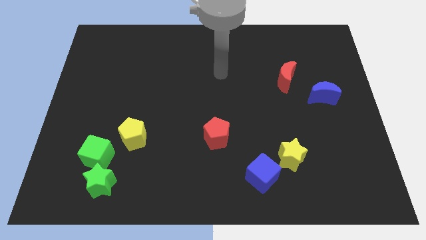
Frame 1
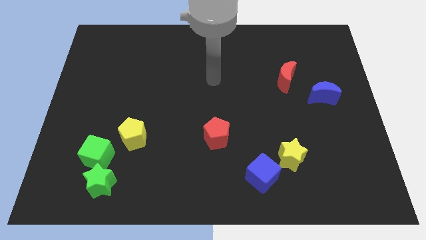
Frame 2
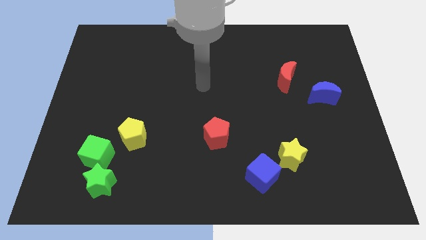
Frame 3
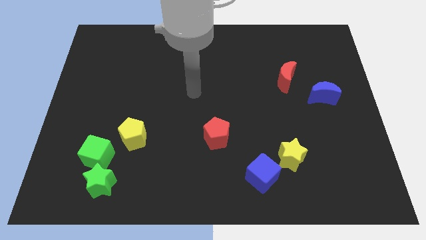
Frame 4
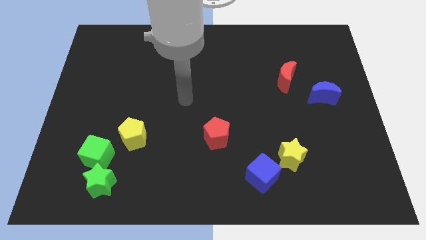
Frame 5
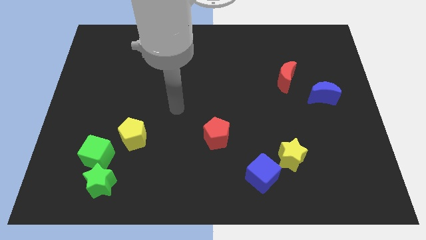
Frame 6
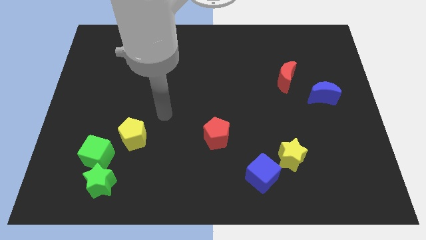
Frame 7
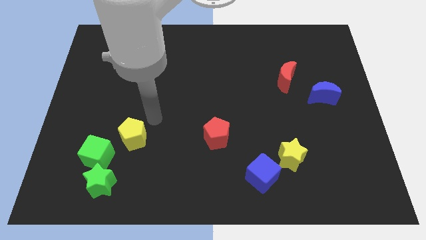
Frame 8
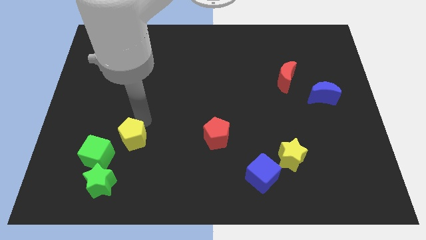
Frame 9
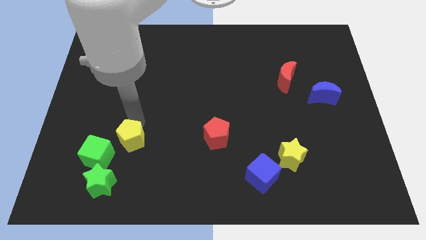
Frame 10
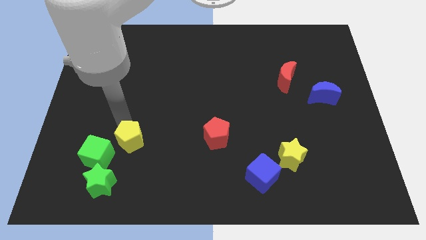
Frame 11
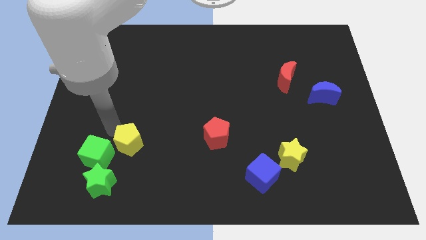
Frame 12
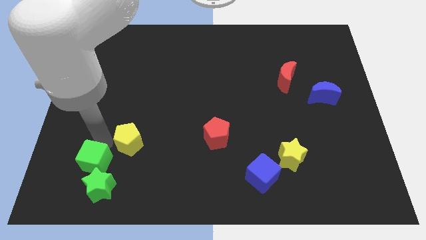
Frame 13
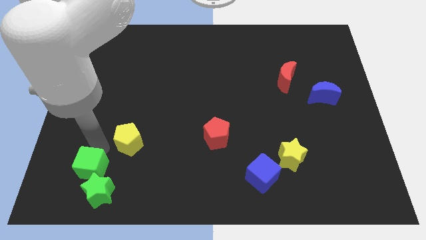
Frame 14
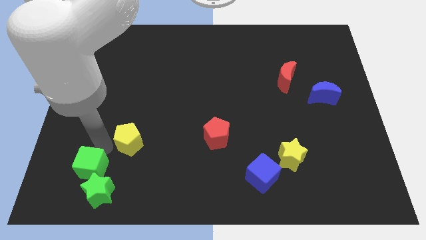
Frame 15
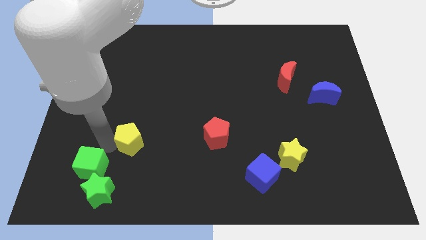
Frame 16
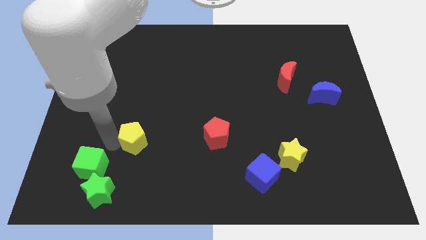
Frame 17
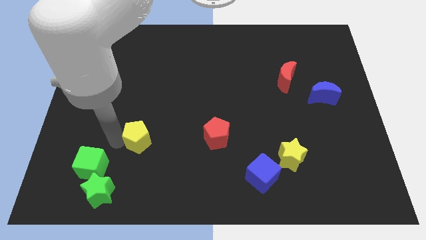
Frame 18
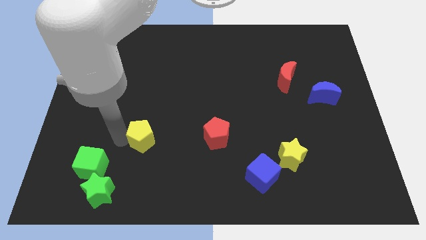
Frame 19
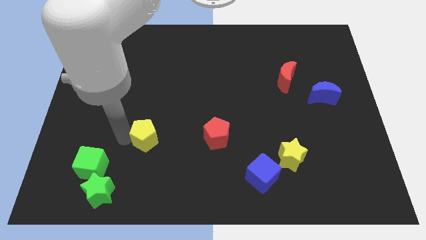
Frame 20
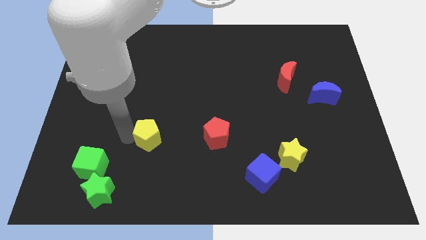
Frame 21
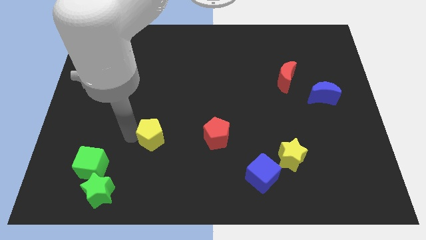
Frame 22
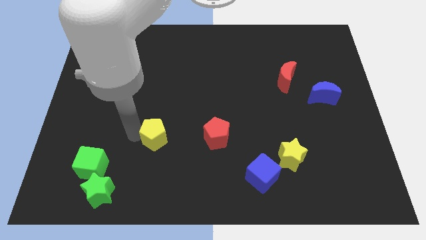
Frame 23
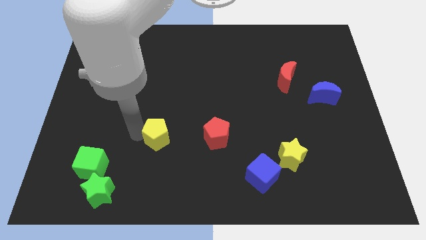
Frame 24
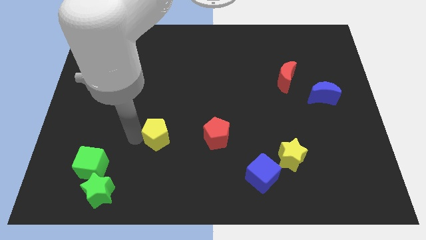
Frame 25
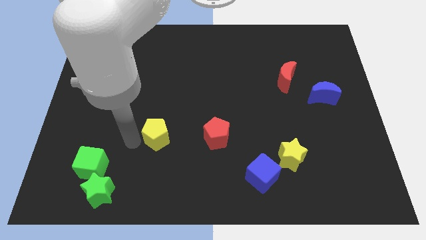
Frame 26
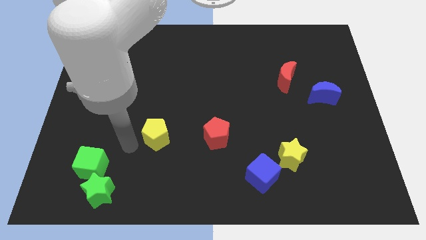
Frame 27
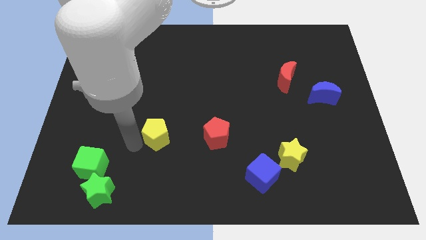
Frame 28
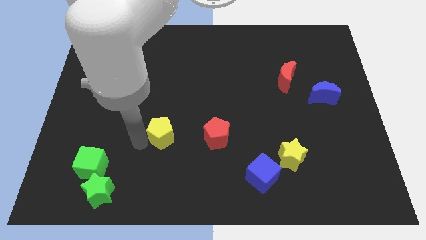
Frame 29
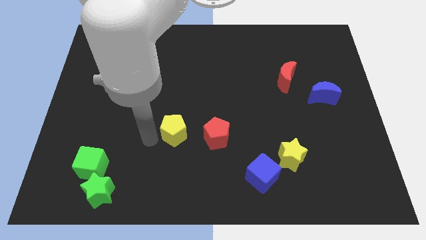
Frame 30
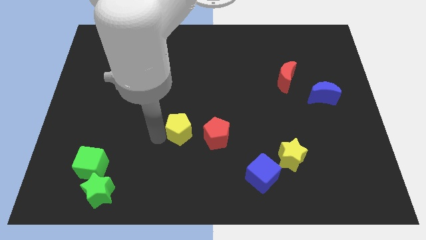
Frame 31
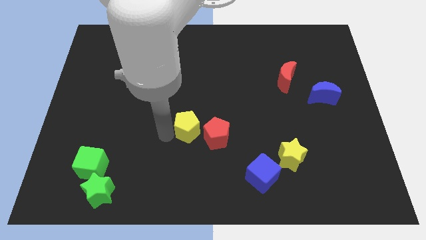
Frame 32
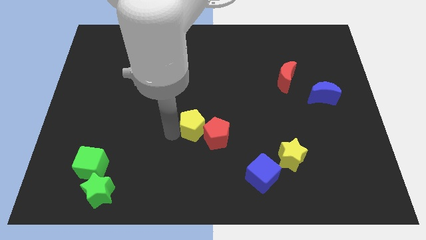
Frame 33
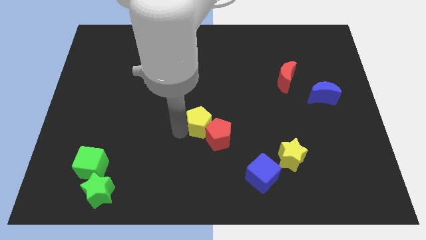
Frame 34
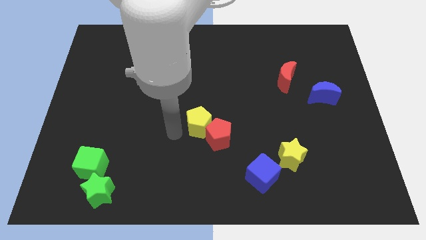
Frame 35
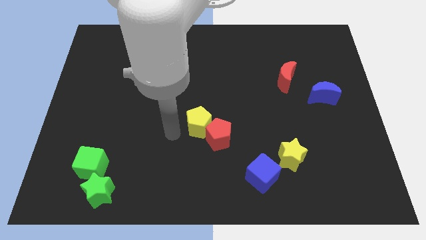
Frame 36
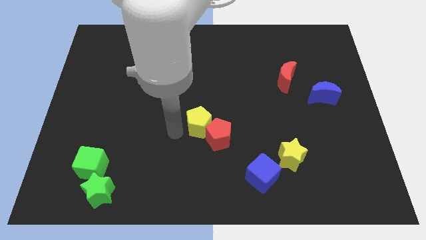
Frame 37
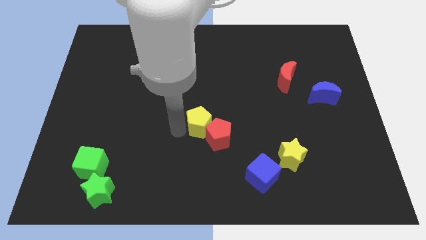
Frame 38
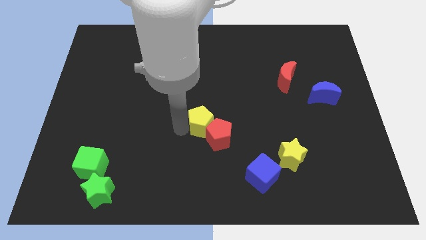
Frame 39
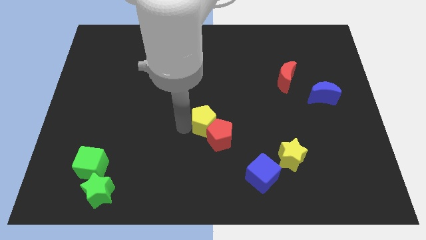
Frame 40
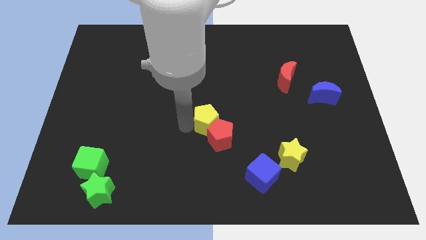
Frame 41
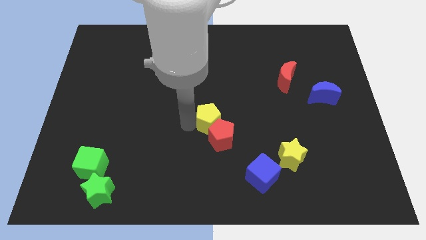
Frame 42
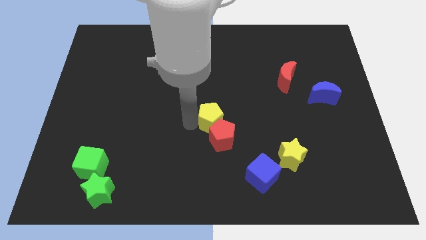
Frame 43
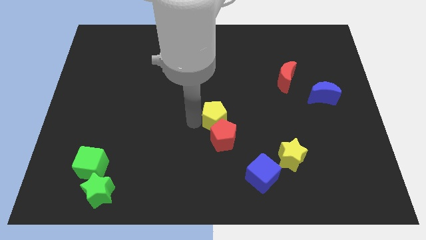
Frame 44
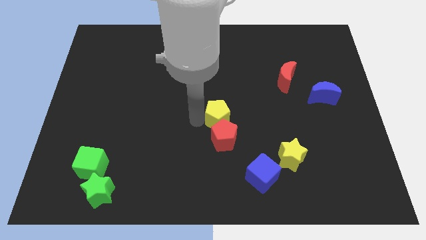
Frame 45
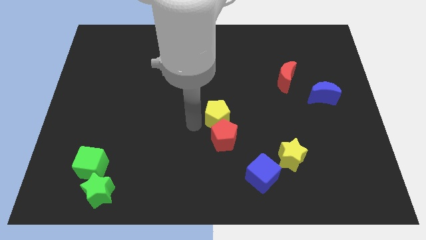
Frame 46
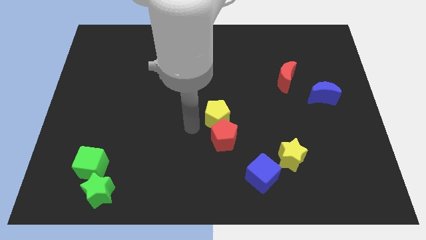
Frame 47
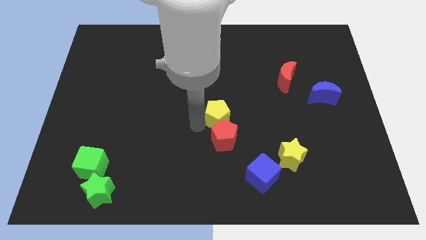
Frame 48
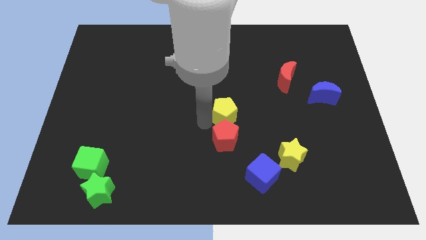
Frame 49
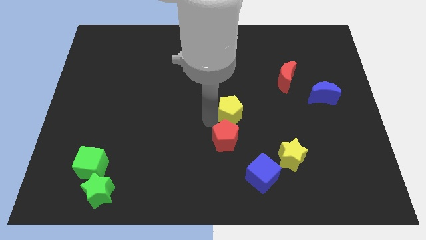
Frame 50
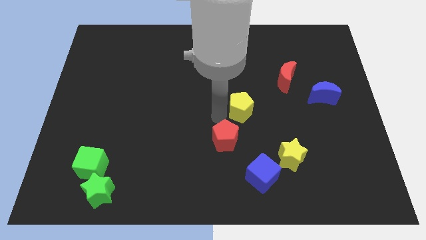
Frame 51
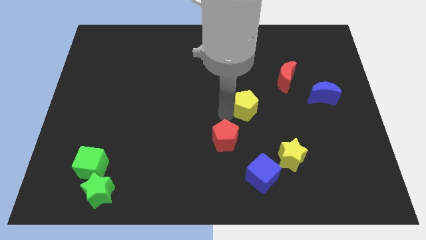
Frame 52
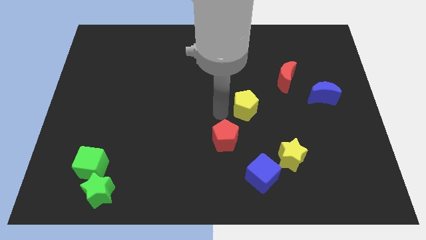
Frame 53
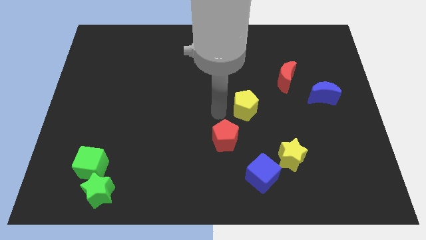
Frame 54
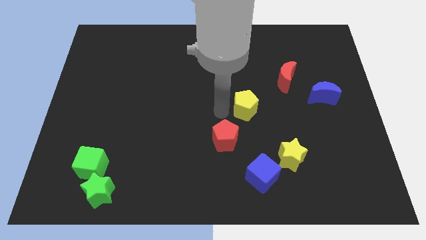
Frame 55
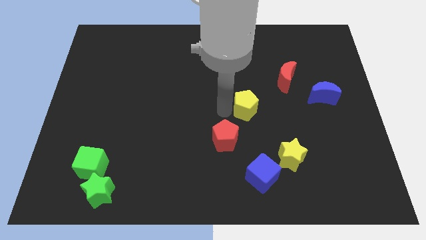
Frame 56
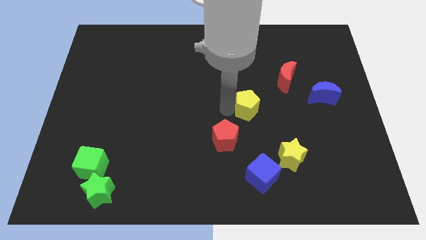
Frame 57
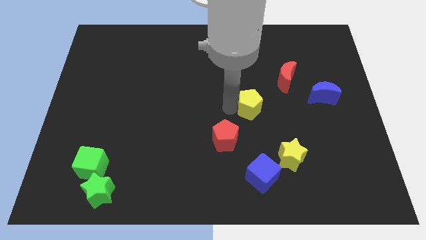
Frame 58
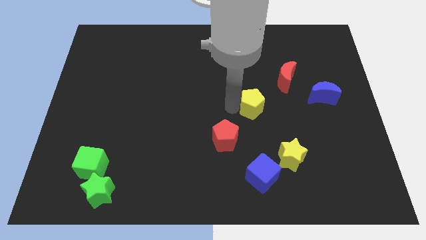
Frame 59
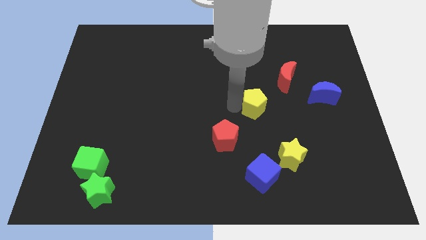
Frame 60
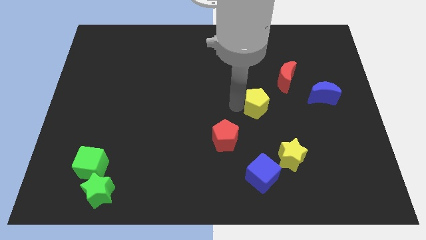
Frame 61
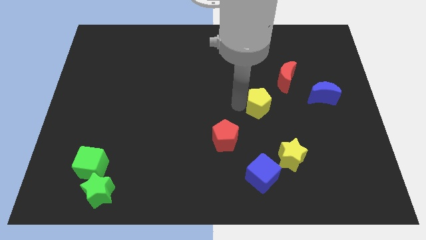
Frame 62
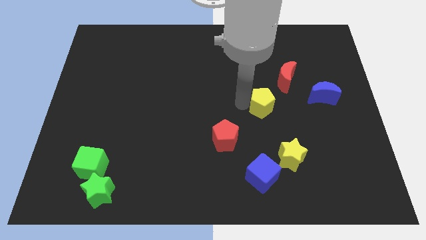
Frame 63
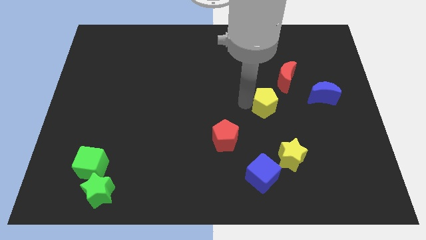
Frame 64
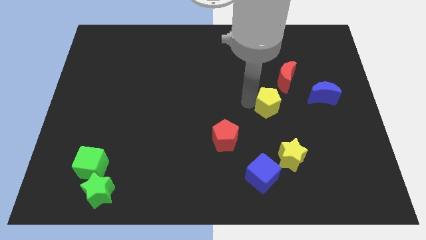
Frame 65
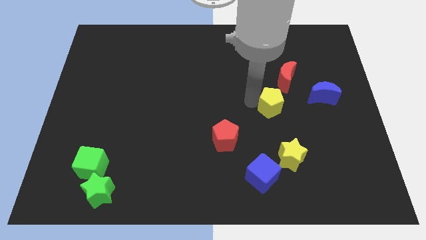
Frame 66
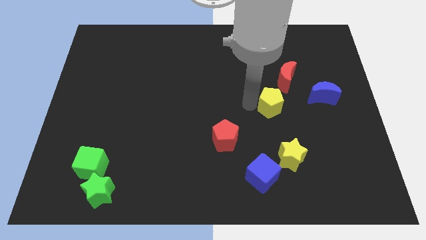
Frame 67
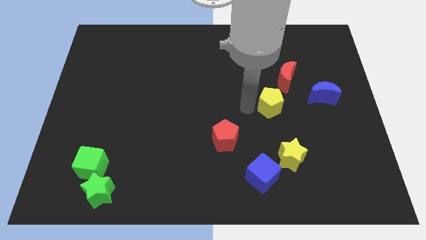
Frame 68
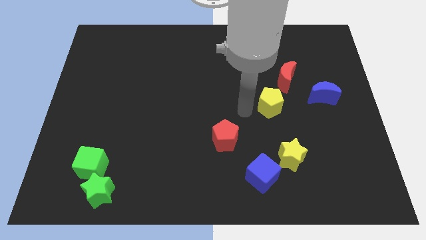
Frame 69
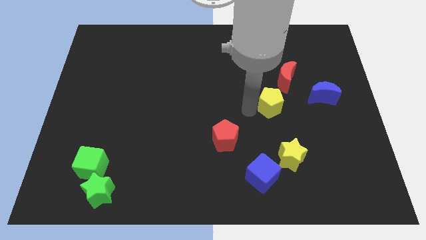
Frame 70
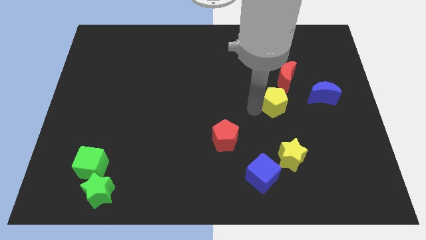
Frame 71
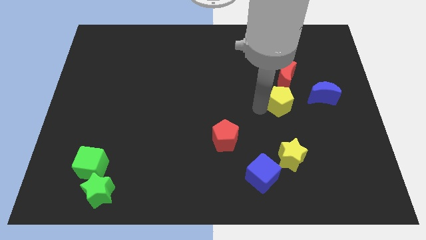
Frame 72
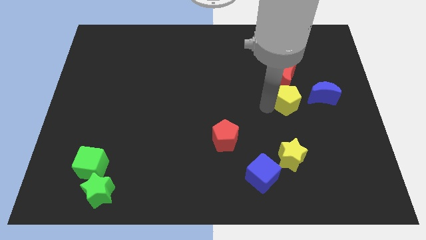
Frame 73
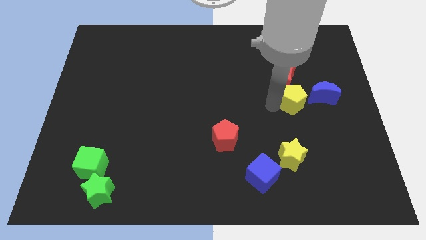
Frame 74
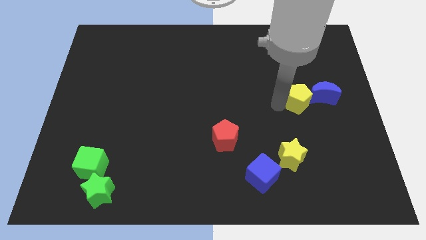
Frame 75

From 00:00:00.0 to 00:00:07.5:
slide the yellow pentagon next to the blue moon
